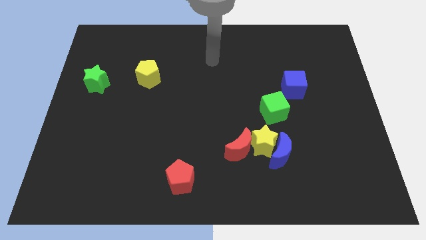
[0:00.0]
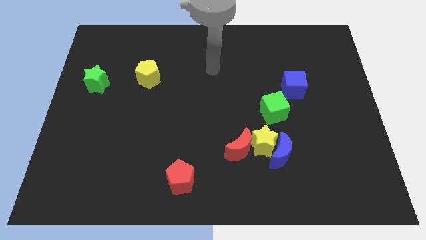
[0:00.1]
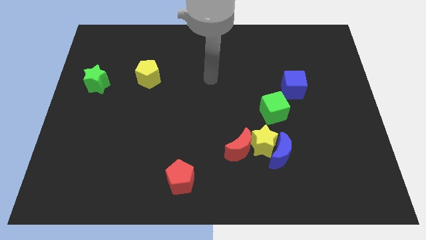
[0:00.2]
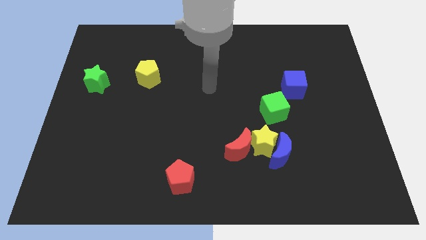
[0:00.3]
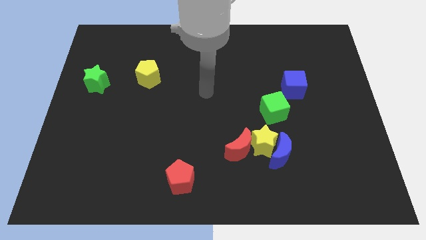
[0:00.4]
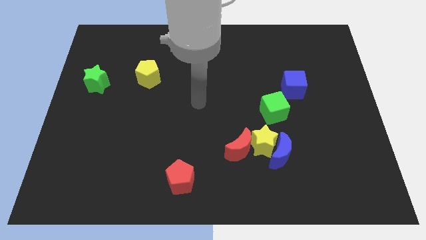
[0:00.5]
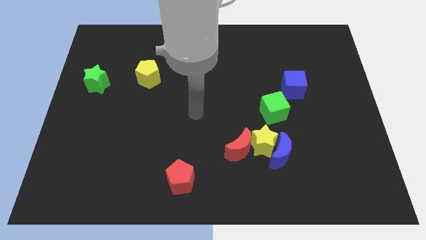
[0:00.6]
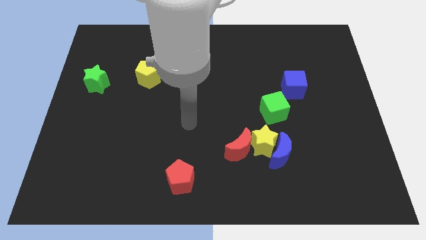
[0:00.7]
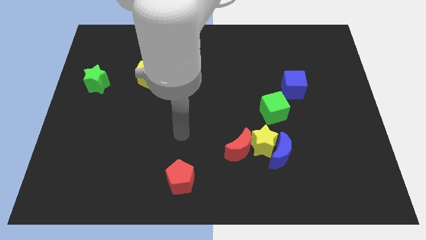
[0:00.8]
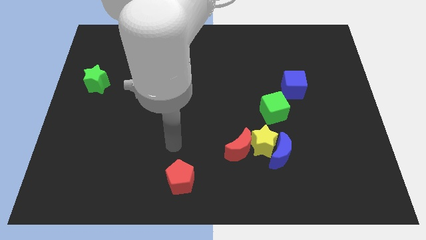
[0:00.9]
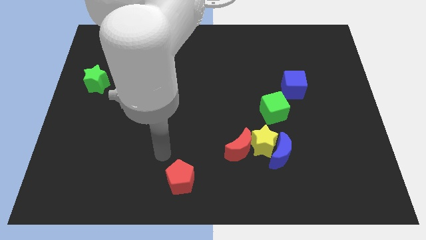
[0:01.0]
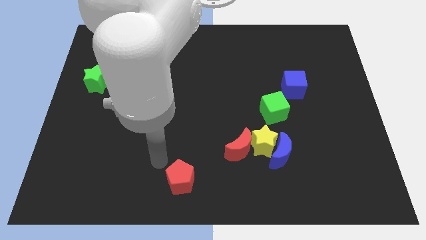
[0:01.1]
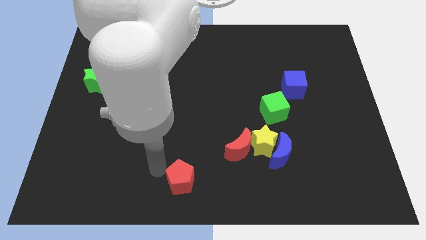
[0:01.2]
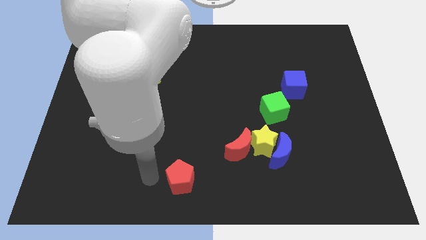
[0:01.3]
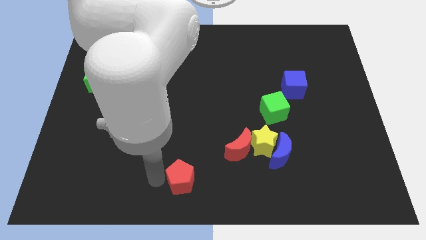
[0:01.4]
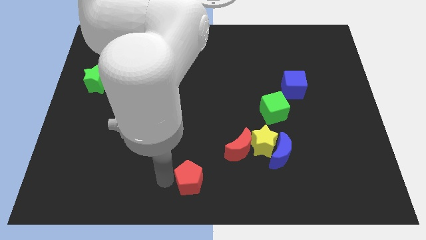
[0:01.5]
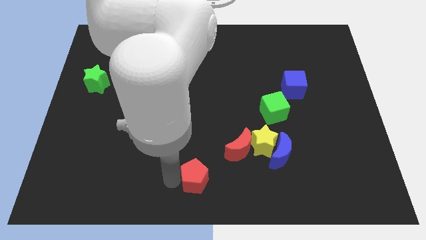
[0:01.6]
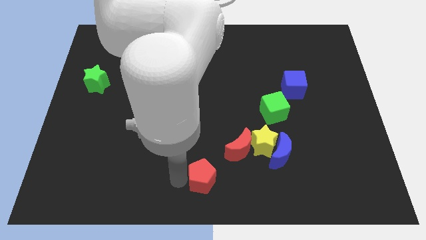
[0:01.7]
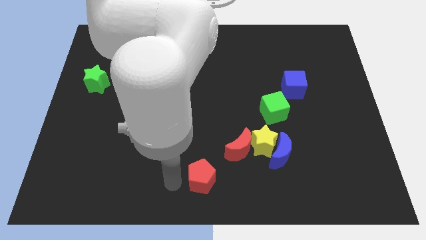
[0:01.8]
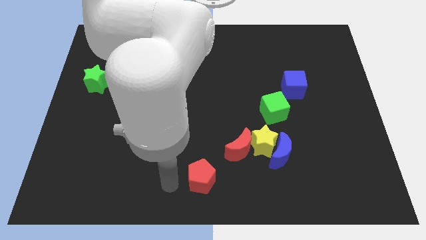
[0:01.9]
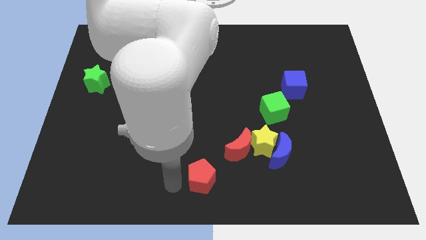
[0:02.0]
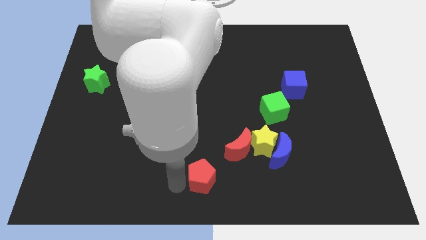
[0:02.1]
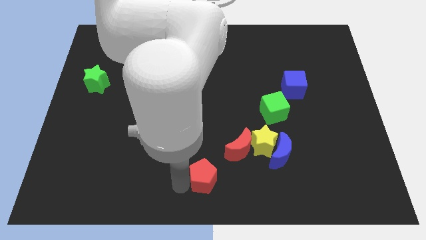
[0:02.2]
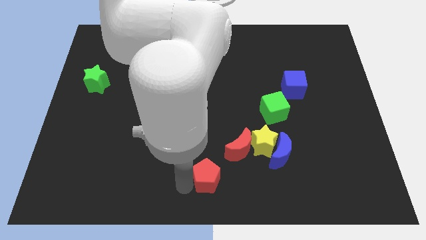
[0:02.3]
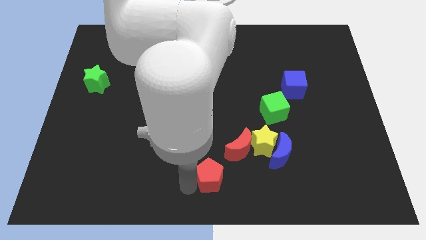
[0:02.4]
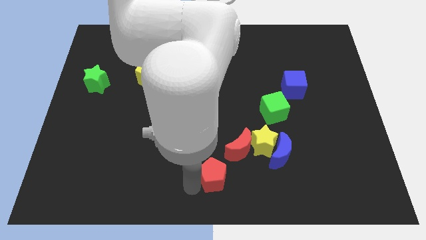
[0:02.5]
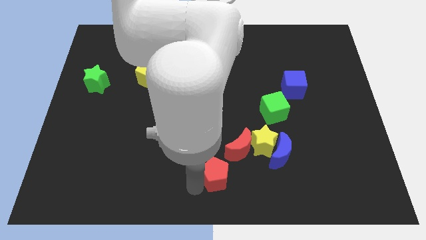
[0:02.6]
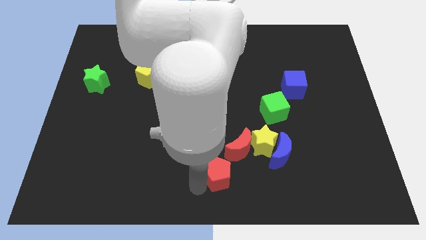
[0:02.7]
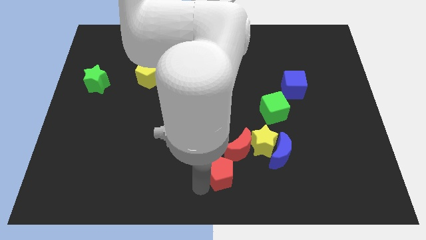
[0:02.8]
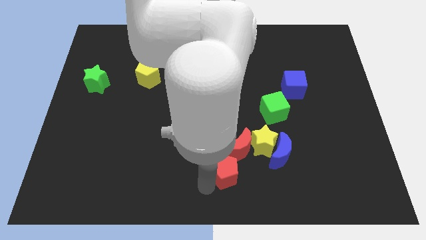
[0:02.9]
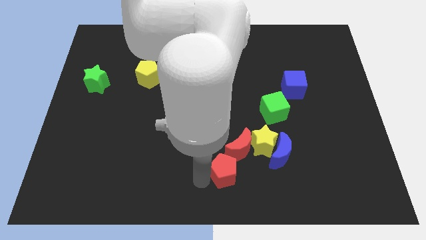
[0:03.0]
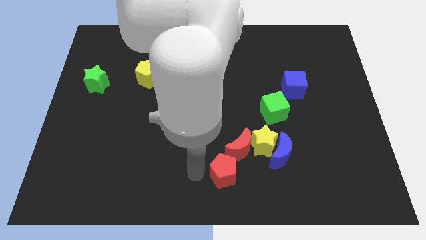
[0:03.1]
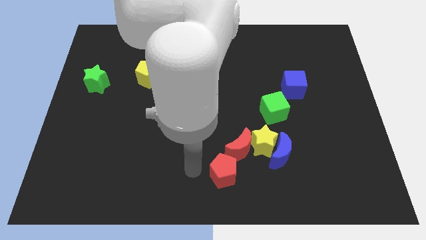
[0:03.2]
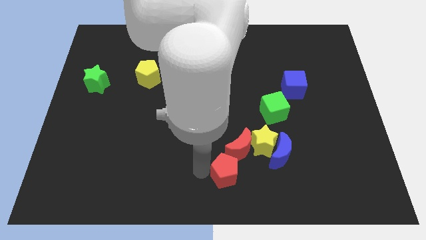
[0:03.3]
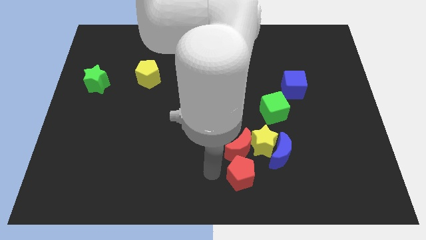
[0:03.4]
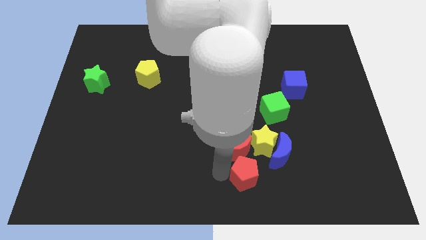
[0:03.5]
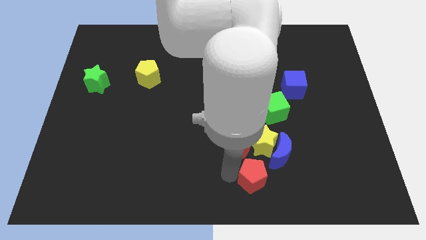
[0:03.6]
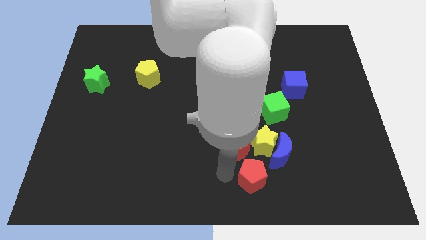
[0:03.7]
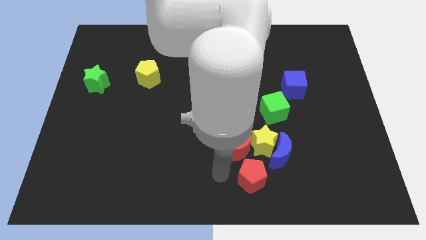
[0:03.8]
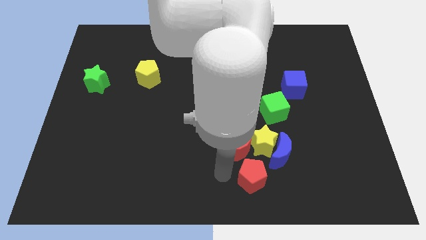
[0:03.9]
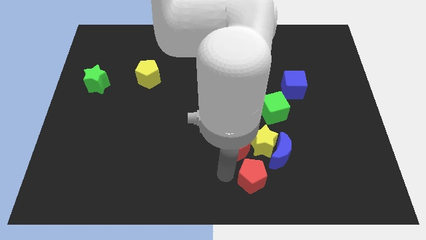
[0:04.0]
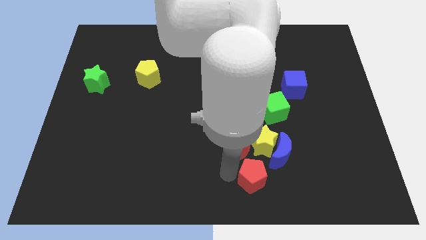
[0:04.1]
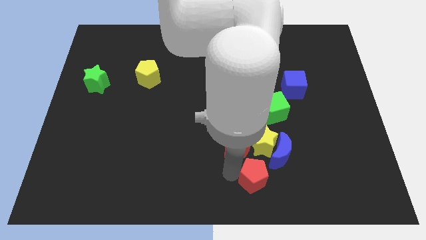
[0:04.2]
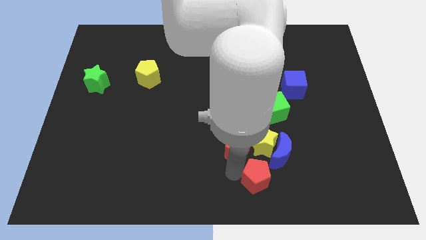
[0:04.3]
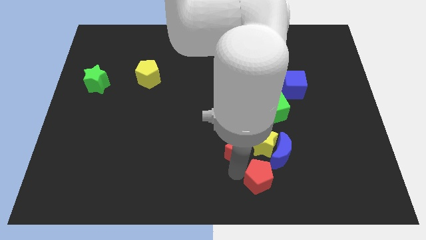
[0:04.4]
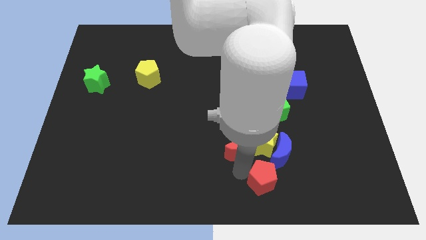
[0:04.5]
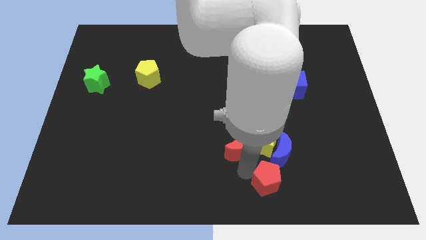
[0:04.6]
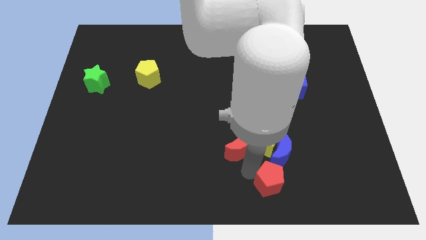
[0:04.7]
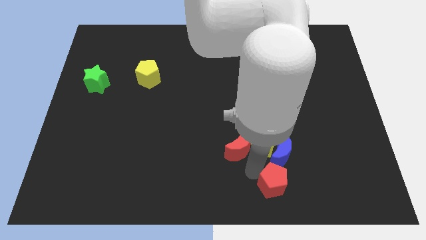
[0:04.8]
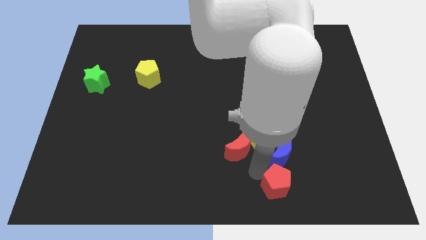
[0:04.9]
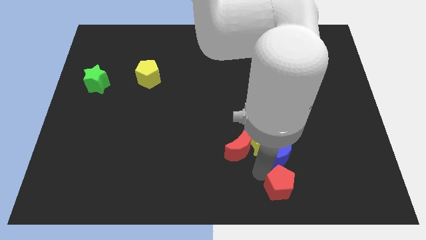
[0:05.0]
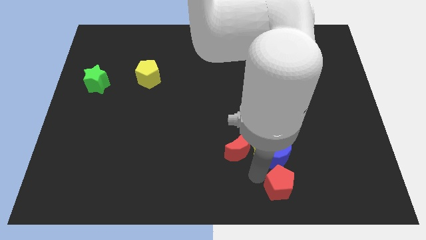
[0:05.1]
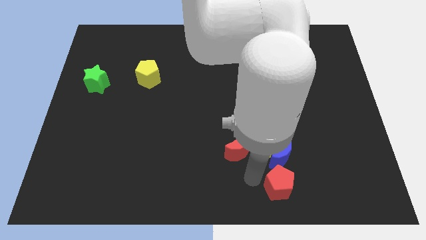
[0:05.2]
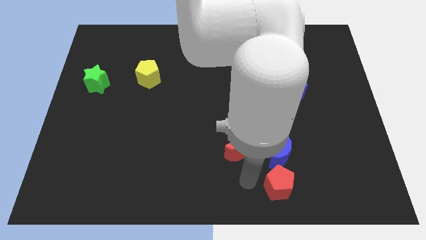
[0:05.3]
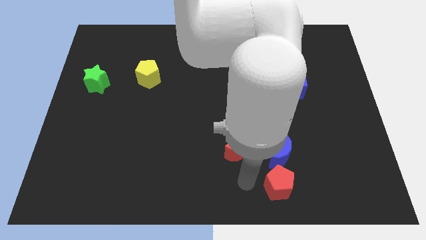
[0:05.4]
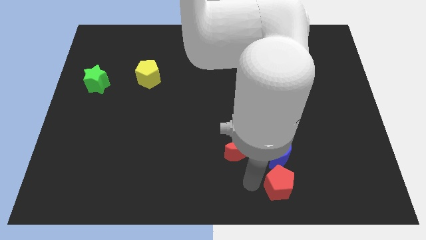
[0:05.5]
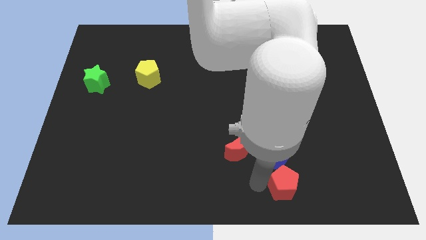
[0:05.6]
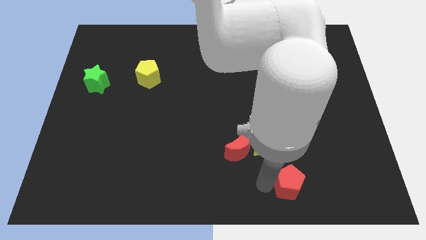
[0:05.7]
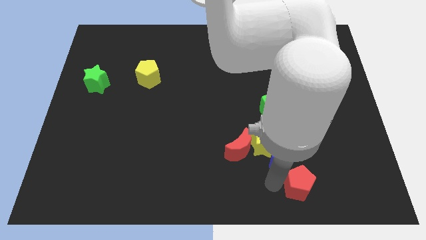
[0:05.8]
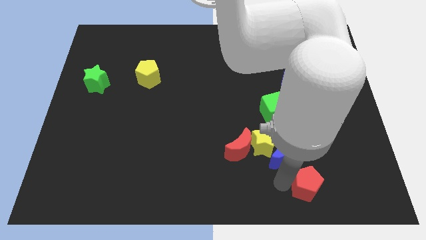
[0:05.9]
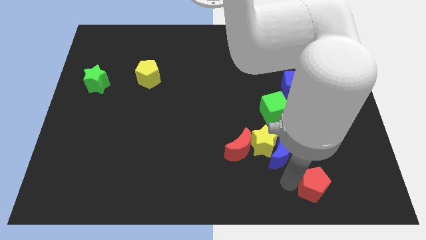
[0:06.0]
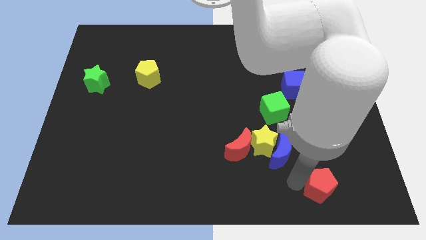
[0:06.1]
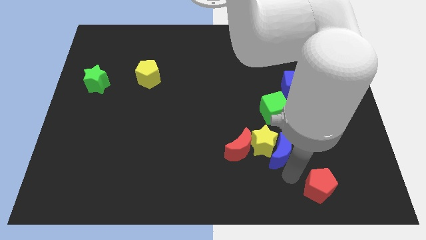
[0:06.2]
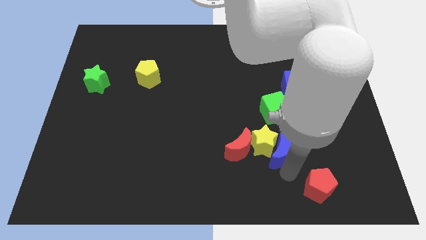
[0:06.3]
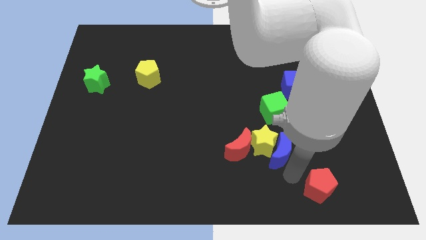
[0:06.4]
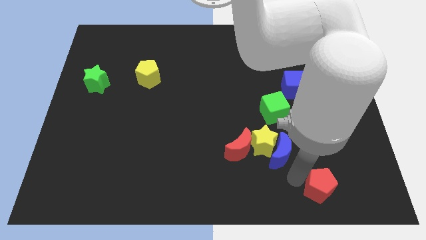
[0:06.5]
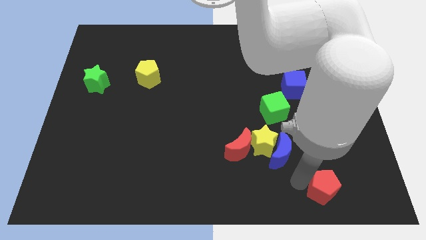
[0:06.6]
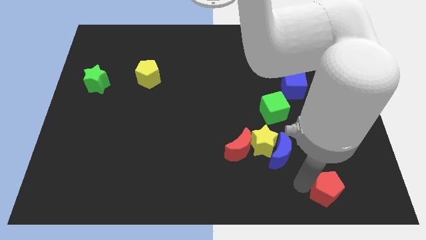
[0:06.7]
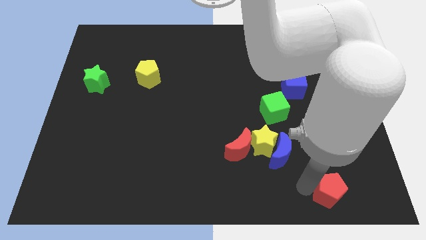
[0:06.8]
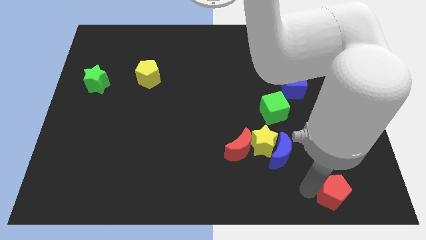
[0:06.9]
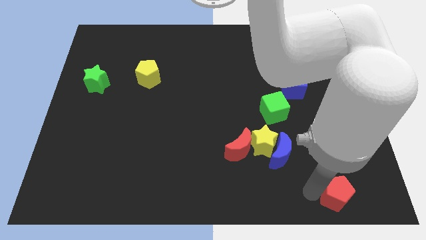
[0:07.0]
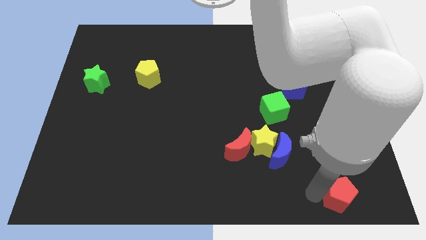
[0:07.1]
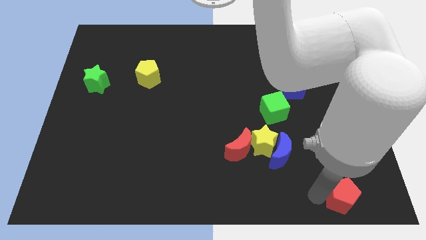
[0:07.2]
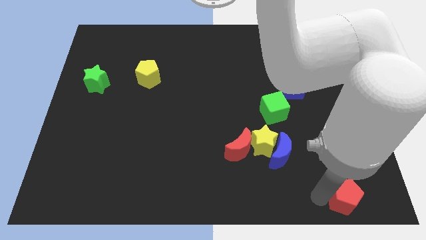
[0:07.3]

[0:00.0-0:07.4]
slide the red pentagon to the lower right corner

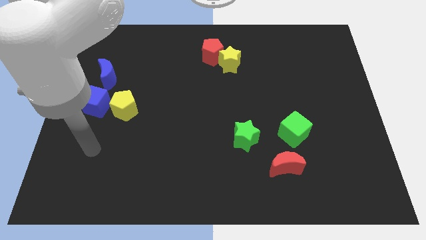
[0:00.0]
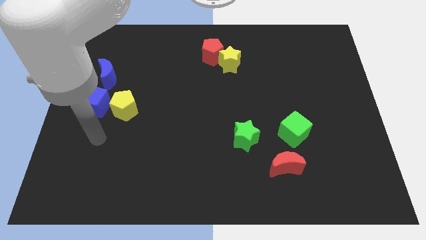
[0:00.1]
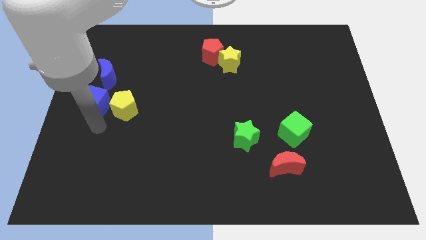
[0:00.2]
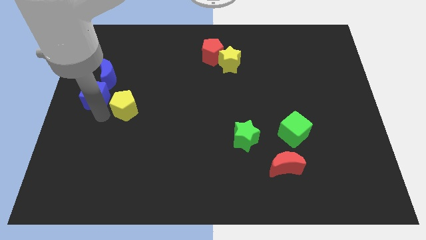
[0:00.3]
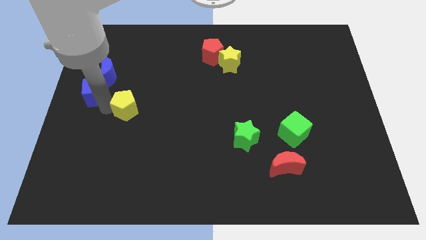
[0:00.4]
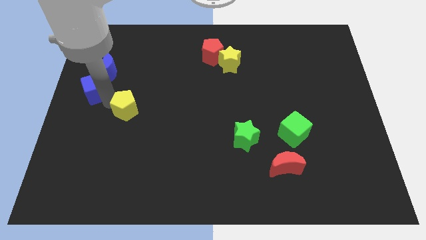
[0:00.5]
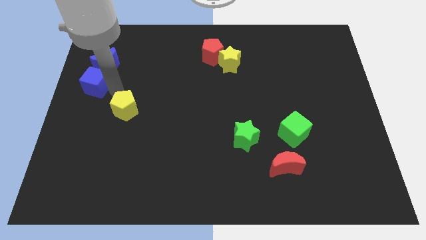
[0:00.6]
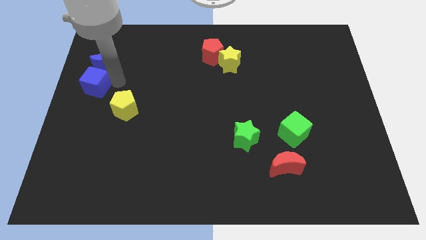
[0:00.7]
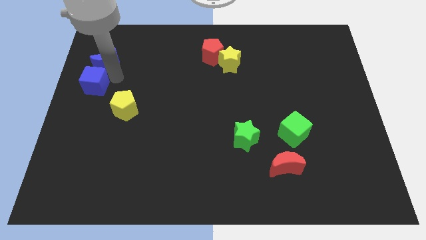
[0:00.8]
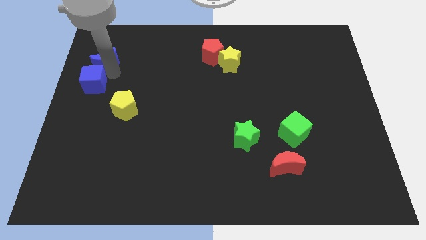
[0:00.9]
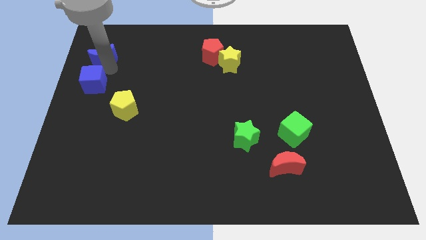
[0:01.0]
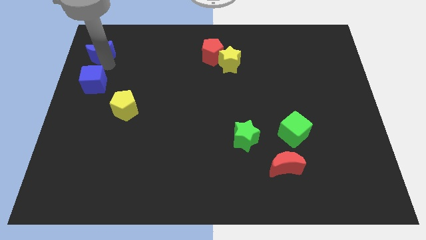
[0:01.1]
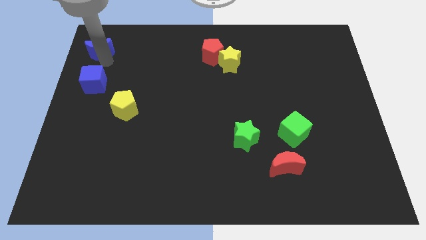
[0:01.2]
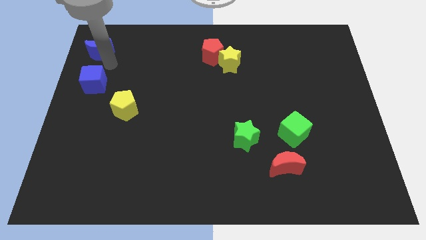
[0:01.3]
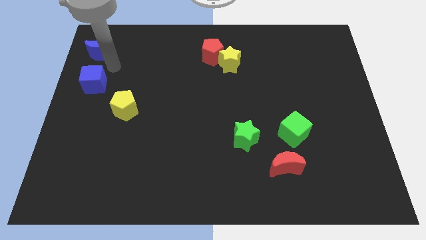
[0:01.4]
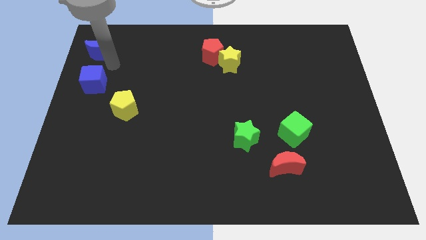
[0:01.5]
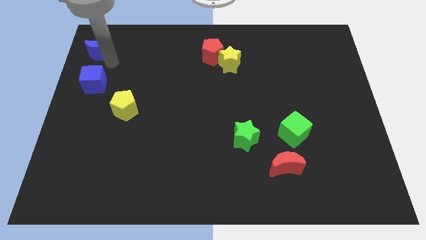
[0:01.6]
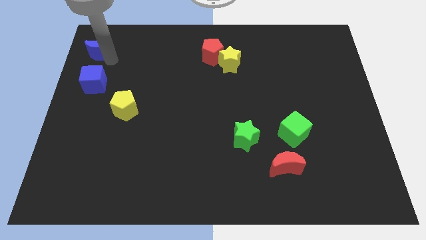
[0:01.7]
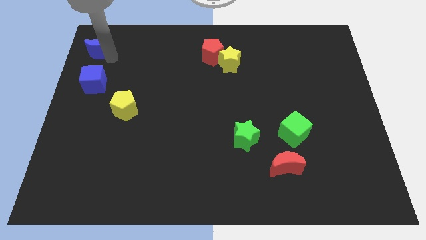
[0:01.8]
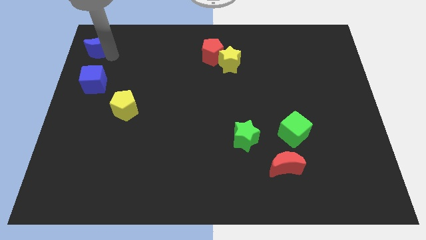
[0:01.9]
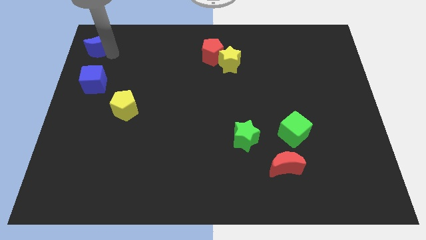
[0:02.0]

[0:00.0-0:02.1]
slide the blue moon to the top left
